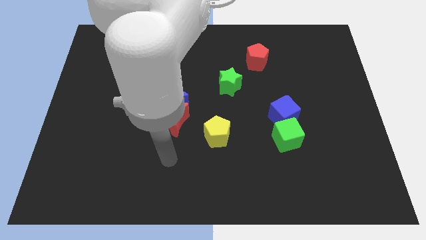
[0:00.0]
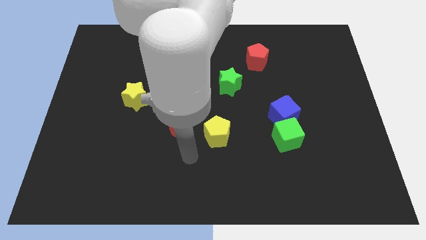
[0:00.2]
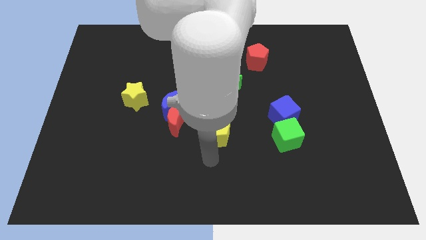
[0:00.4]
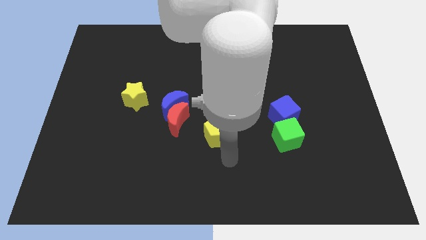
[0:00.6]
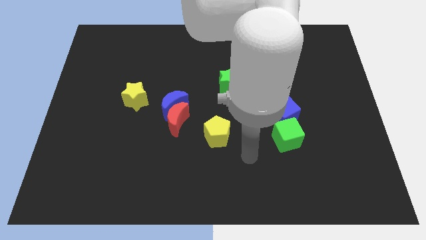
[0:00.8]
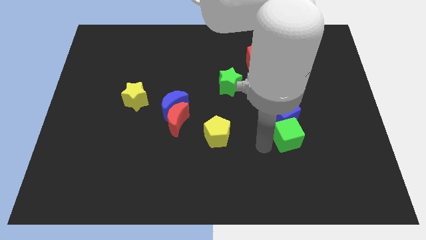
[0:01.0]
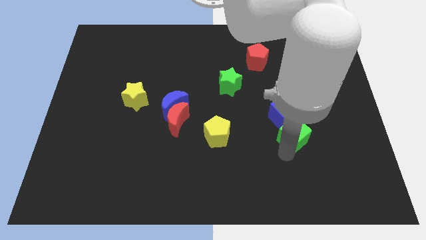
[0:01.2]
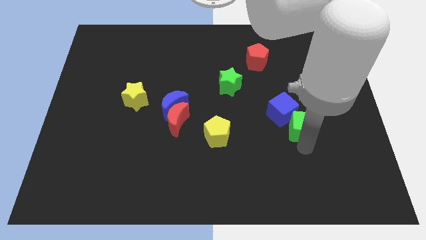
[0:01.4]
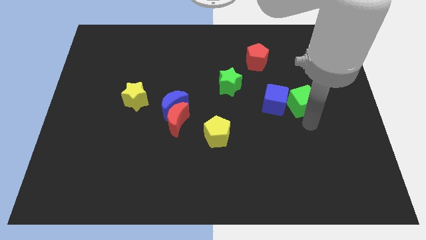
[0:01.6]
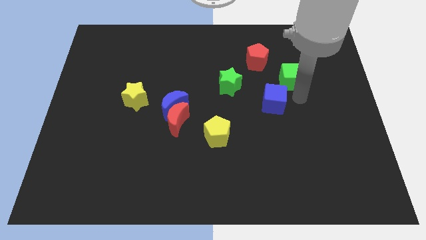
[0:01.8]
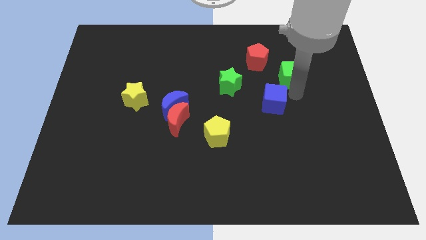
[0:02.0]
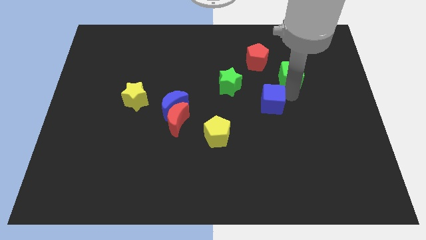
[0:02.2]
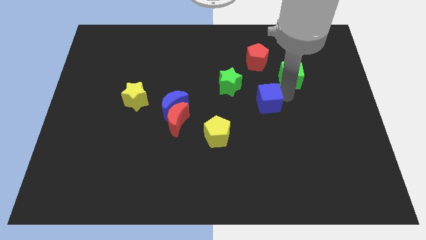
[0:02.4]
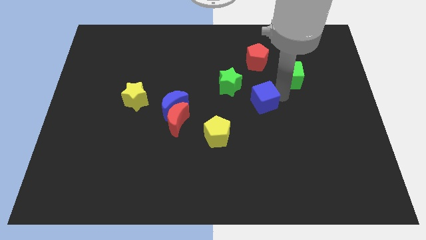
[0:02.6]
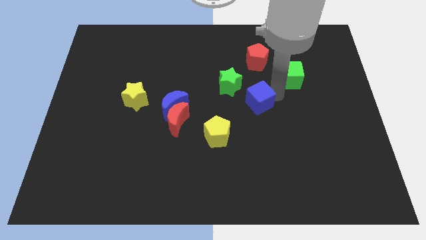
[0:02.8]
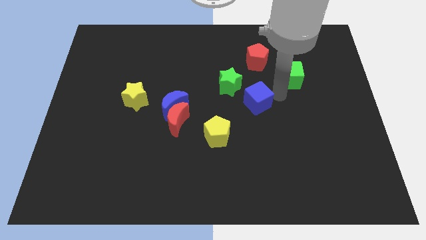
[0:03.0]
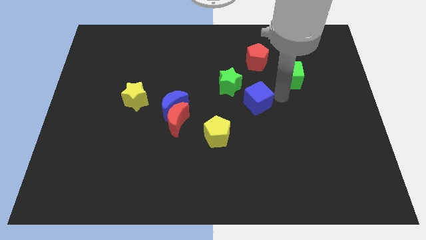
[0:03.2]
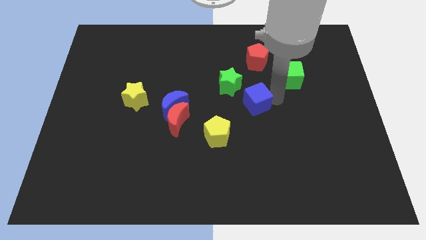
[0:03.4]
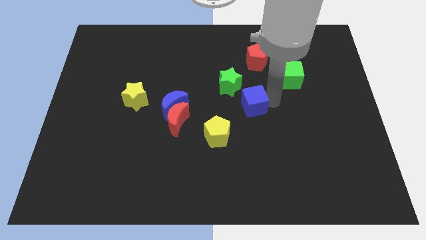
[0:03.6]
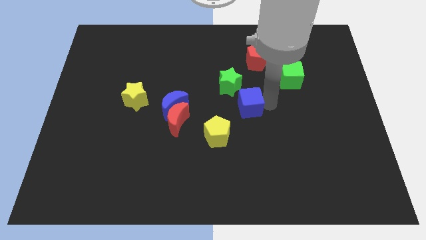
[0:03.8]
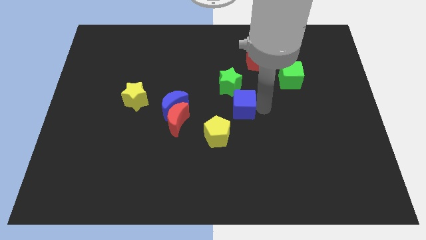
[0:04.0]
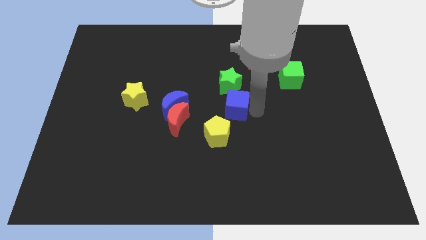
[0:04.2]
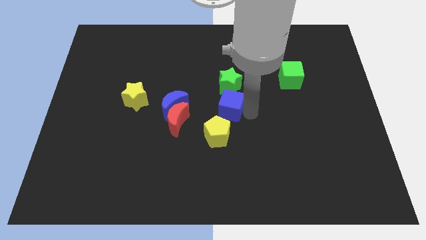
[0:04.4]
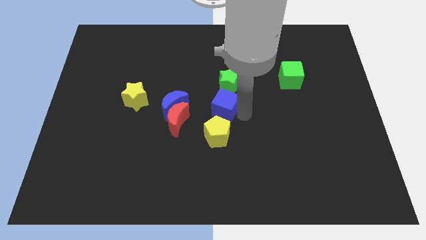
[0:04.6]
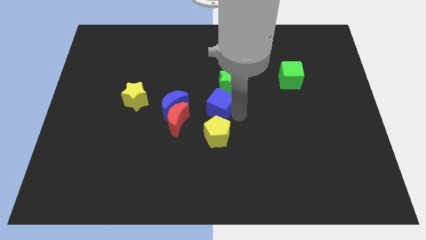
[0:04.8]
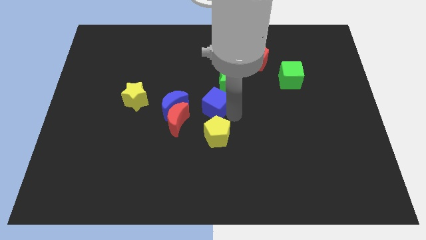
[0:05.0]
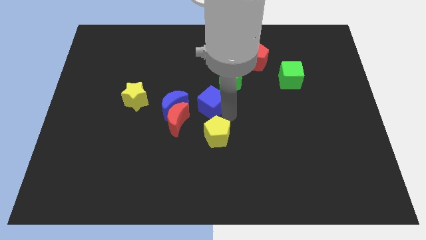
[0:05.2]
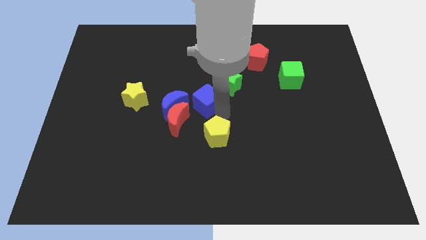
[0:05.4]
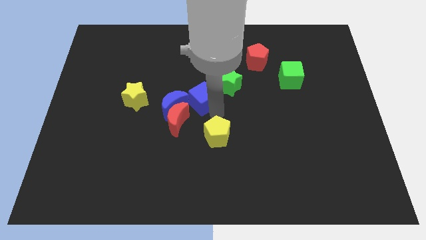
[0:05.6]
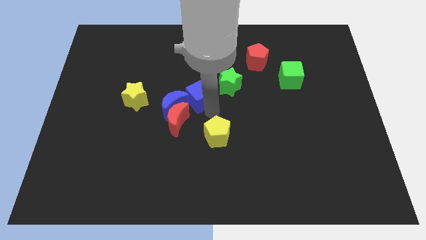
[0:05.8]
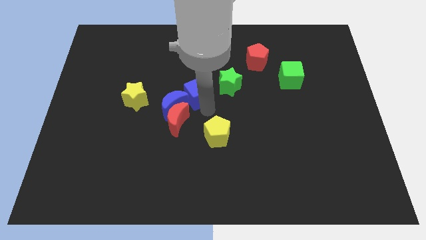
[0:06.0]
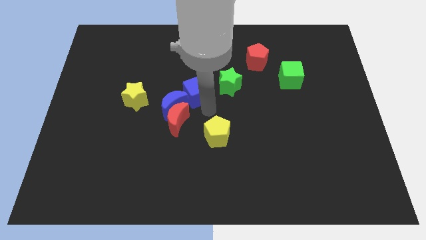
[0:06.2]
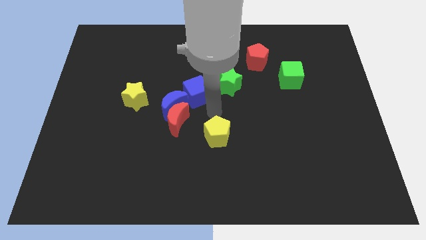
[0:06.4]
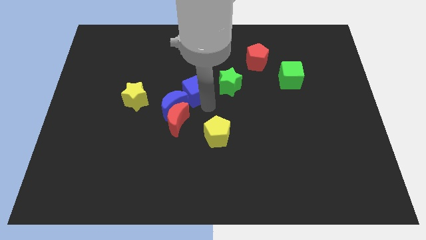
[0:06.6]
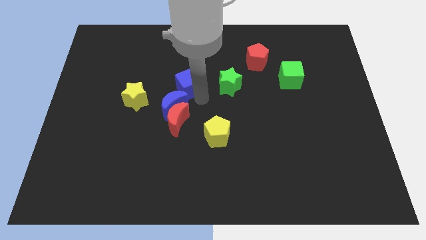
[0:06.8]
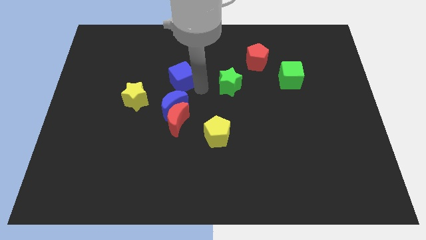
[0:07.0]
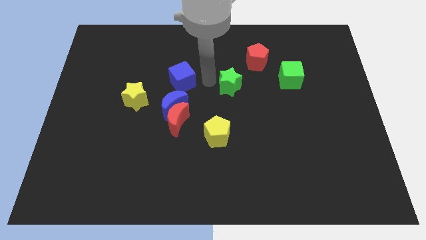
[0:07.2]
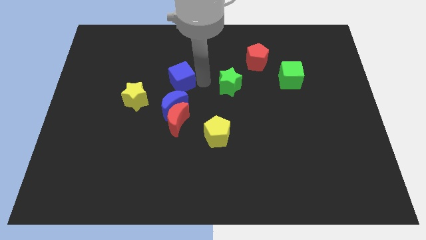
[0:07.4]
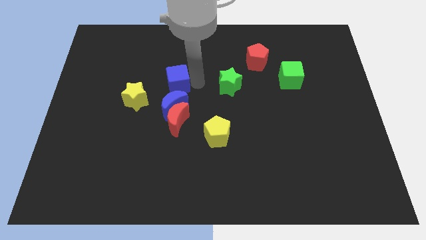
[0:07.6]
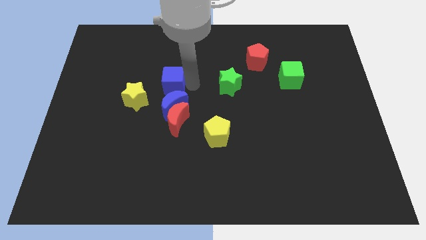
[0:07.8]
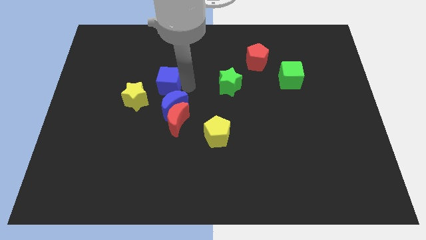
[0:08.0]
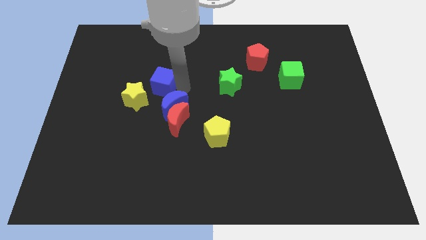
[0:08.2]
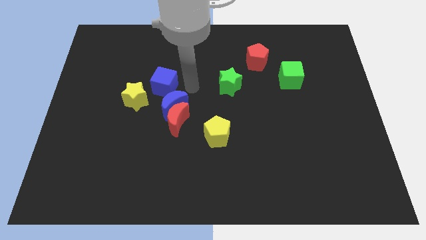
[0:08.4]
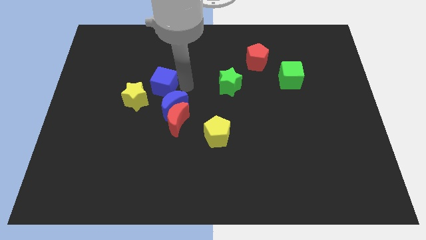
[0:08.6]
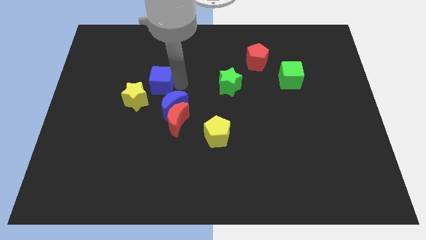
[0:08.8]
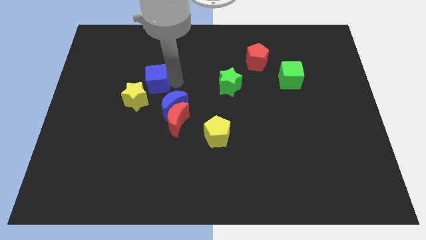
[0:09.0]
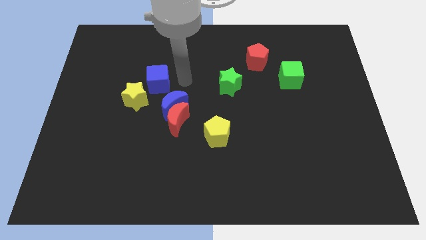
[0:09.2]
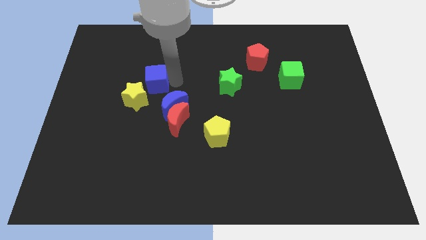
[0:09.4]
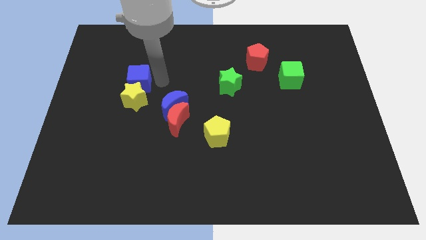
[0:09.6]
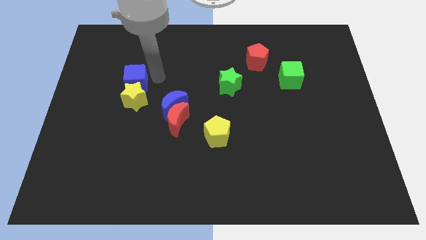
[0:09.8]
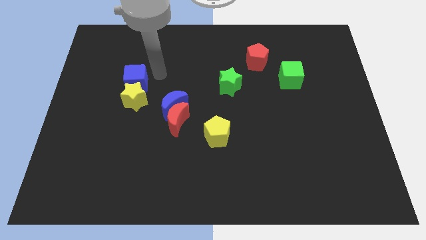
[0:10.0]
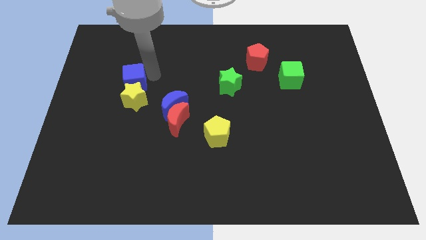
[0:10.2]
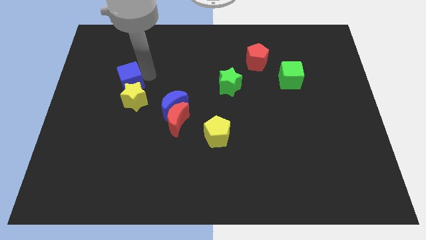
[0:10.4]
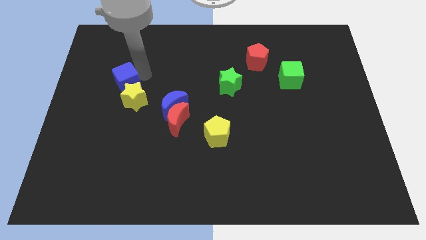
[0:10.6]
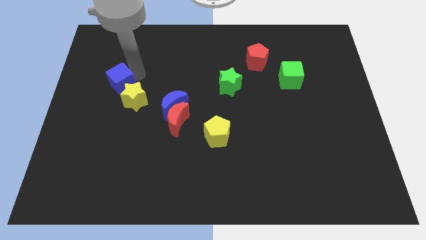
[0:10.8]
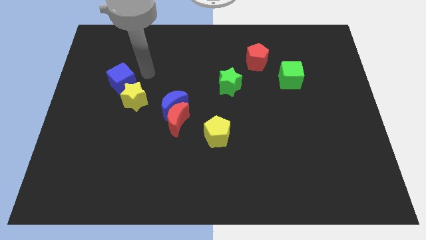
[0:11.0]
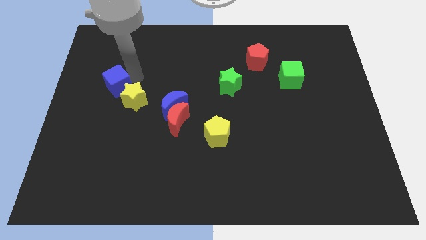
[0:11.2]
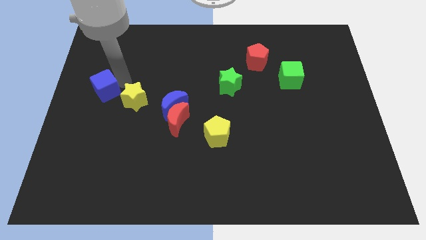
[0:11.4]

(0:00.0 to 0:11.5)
put the blue cube to the left side

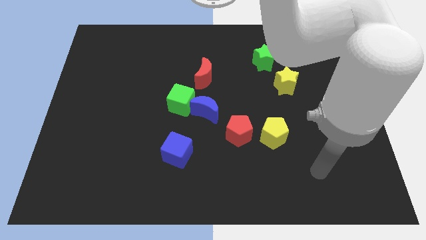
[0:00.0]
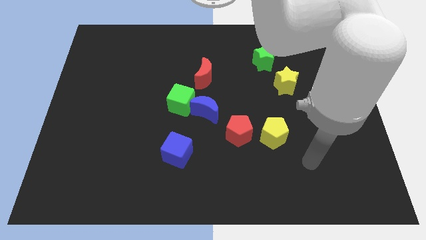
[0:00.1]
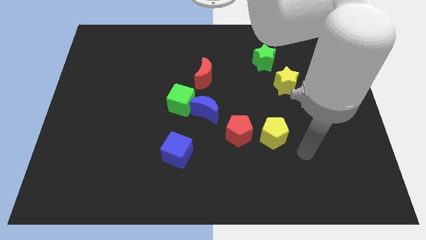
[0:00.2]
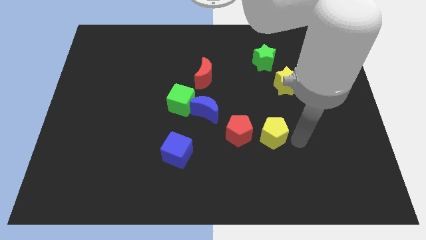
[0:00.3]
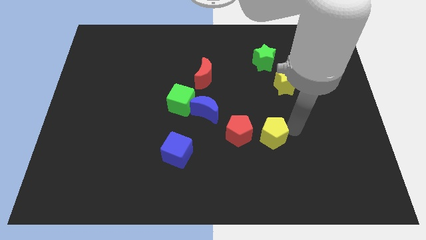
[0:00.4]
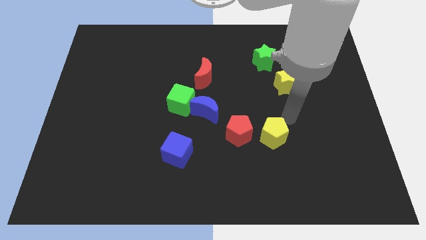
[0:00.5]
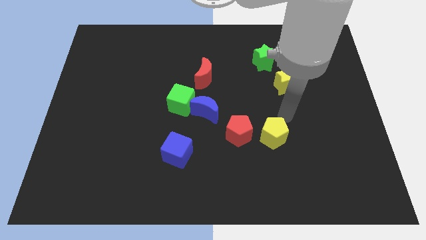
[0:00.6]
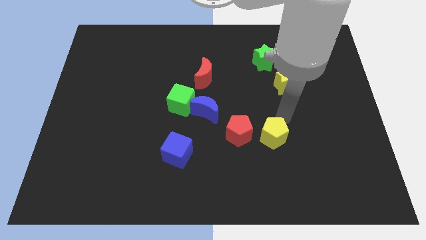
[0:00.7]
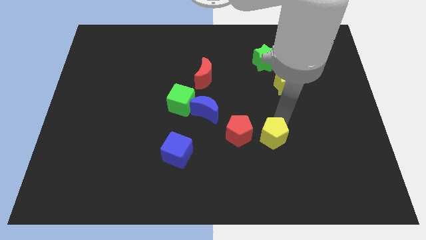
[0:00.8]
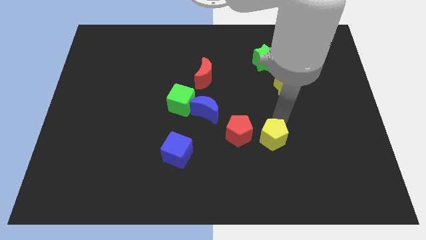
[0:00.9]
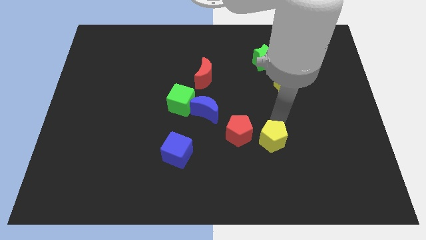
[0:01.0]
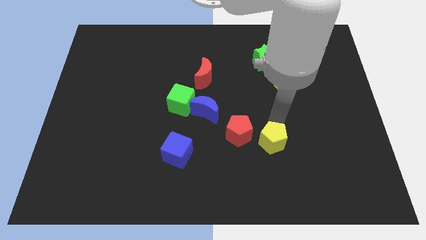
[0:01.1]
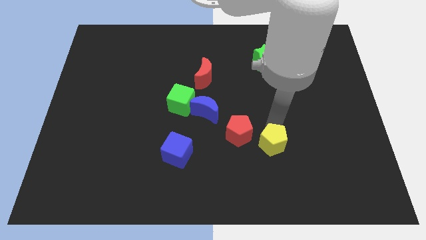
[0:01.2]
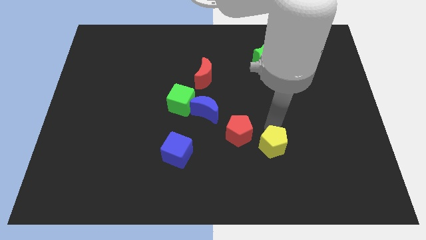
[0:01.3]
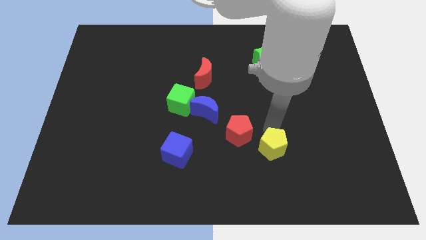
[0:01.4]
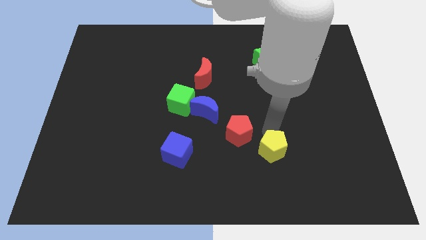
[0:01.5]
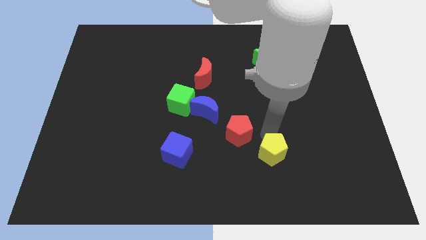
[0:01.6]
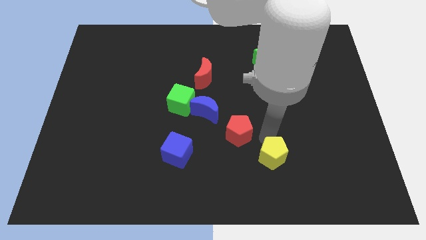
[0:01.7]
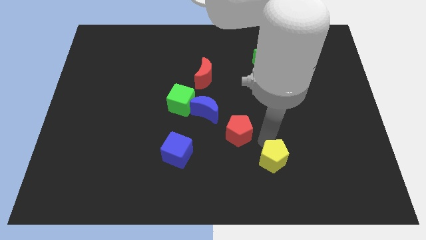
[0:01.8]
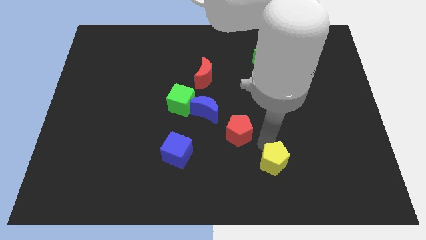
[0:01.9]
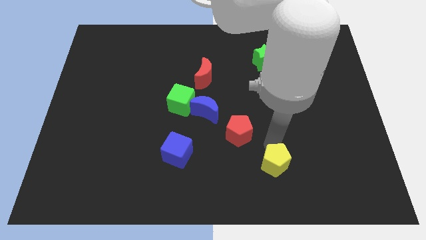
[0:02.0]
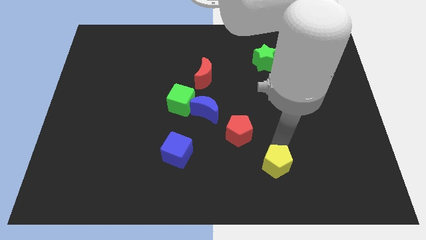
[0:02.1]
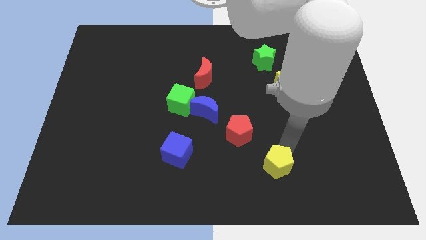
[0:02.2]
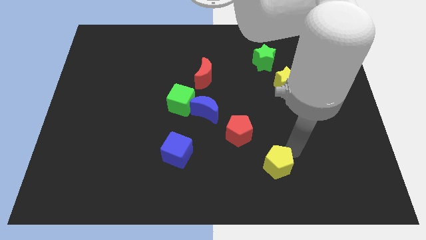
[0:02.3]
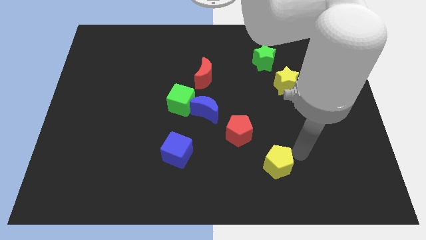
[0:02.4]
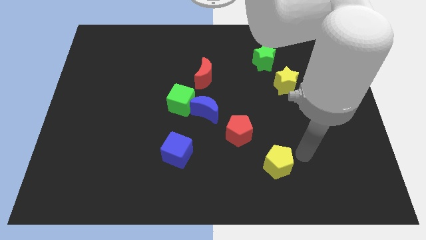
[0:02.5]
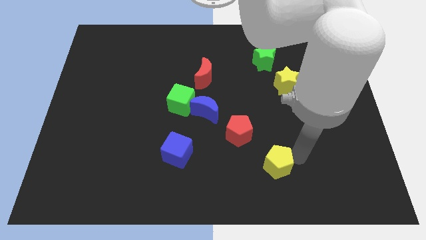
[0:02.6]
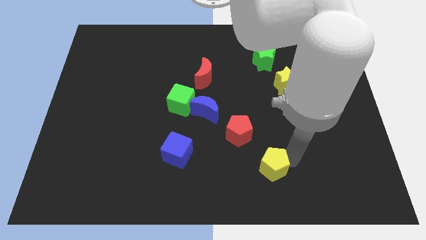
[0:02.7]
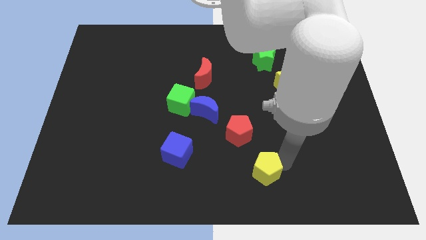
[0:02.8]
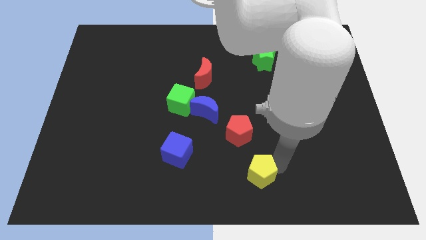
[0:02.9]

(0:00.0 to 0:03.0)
move the yellow pentagon to the bottom side
